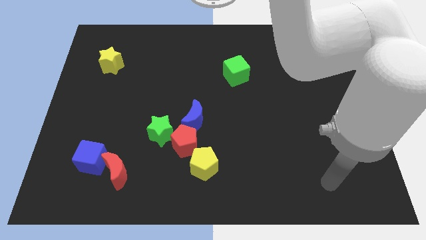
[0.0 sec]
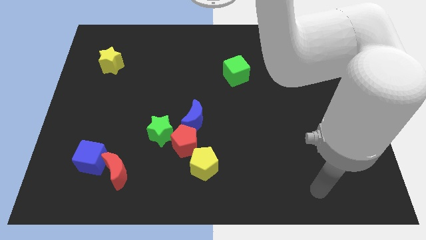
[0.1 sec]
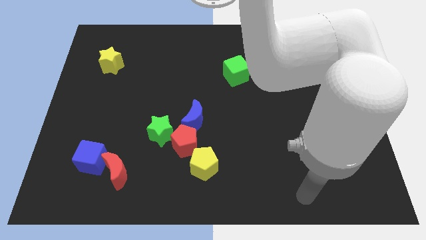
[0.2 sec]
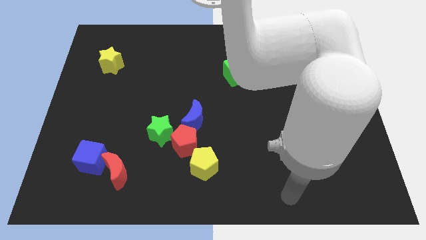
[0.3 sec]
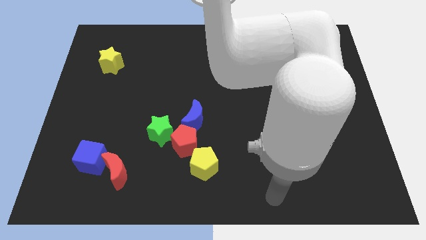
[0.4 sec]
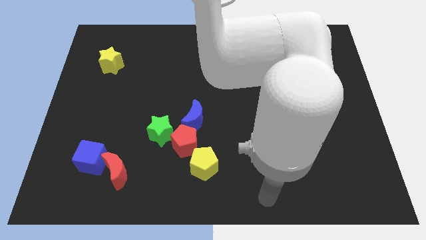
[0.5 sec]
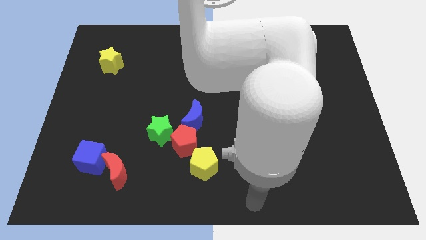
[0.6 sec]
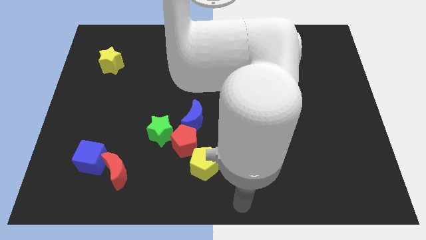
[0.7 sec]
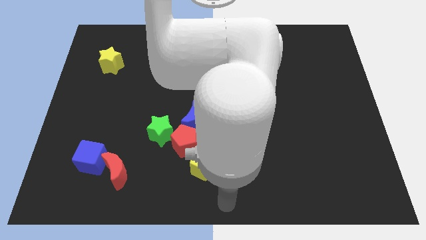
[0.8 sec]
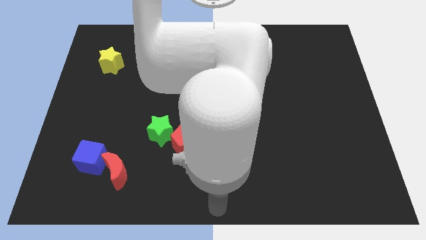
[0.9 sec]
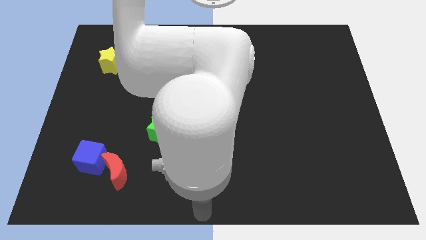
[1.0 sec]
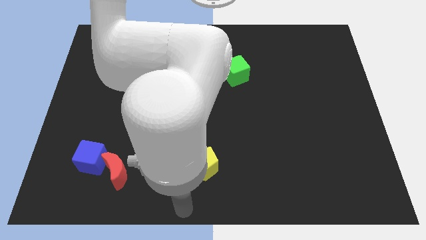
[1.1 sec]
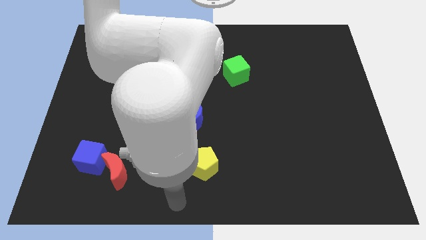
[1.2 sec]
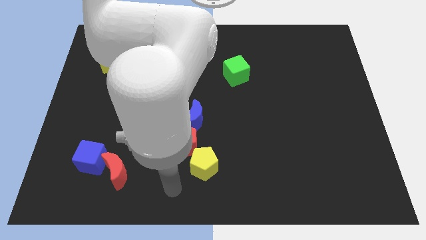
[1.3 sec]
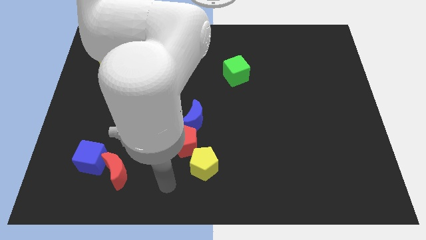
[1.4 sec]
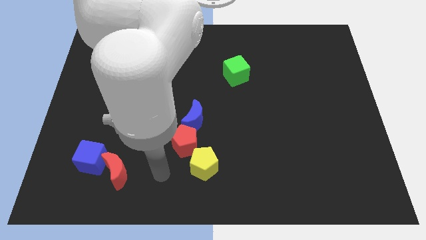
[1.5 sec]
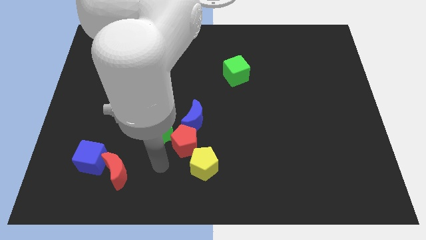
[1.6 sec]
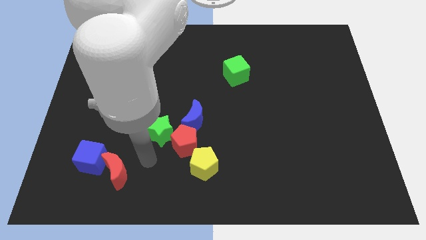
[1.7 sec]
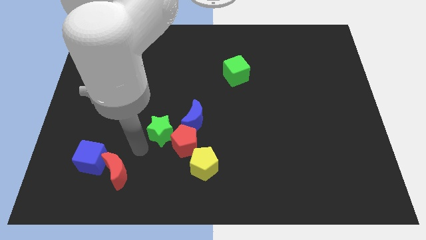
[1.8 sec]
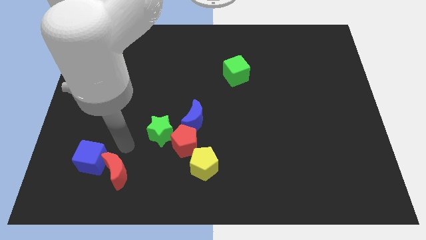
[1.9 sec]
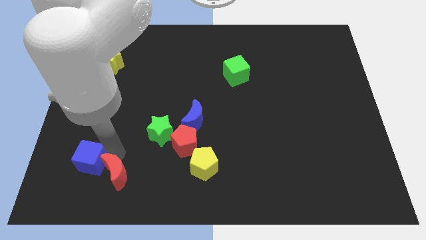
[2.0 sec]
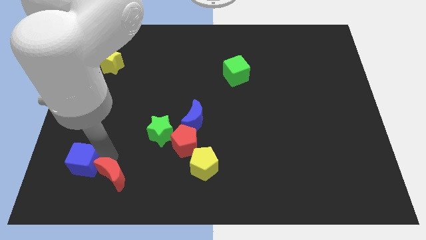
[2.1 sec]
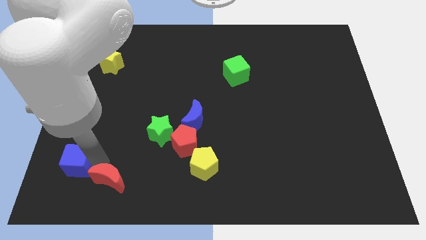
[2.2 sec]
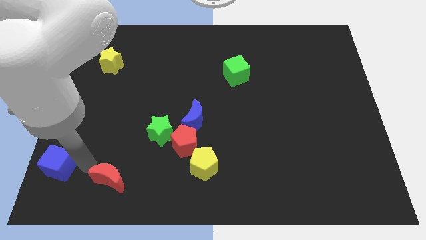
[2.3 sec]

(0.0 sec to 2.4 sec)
separate the red moon from the blue cube

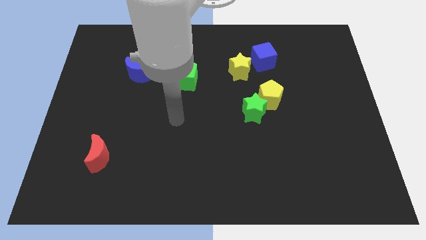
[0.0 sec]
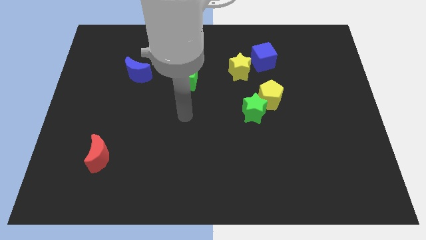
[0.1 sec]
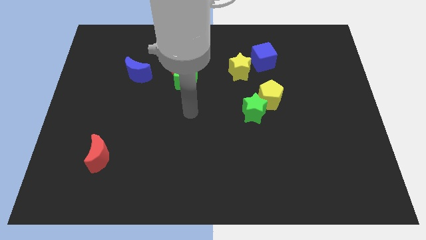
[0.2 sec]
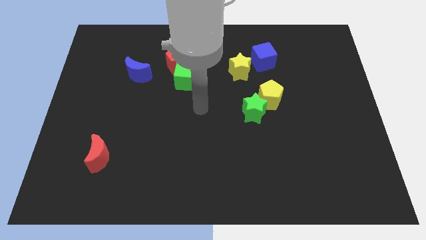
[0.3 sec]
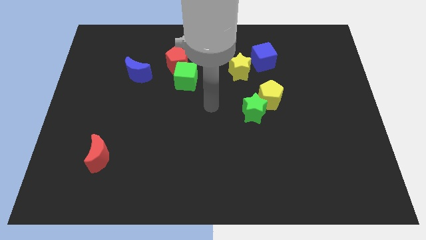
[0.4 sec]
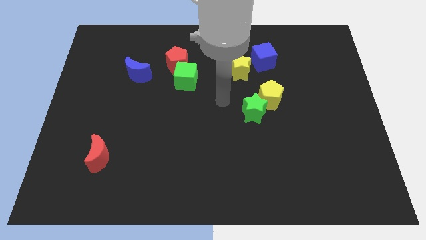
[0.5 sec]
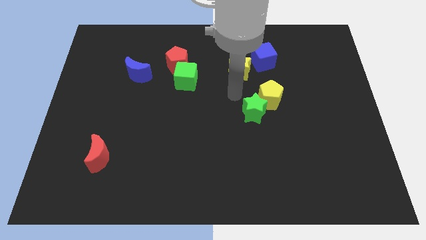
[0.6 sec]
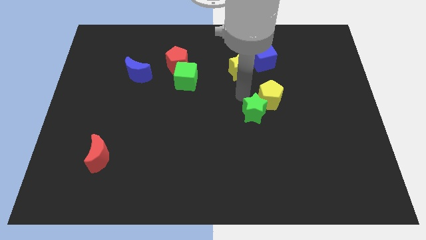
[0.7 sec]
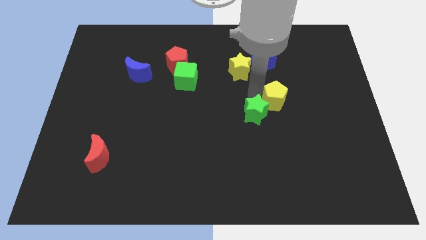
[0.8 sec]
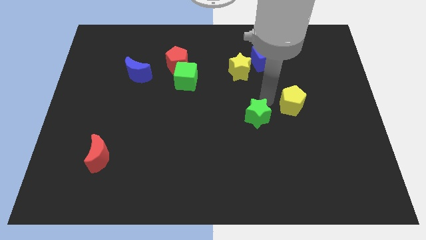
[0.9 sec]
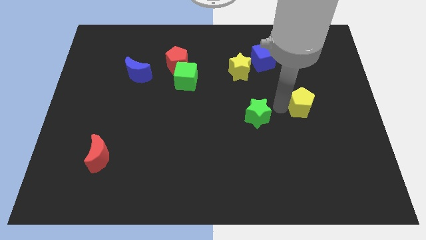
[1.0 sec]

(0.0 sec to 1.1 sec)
move the green star away from the yellow pentagon

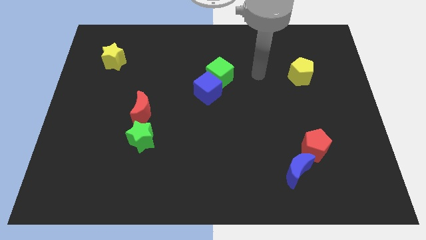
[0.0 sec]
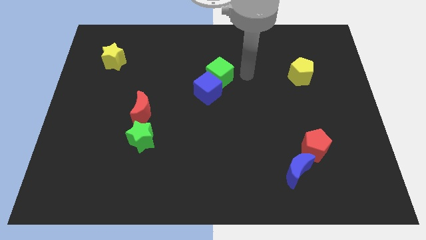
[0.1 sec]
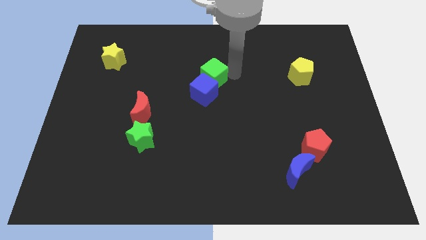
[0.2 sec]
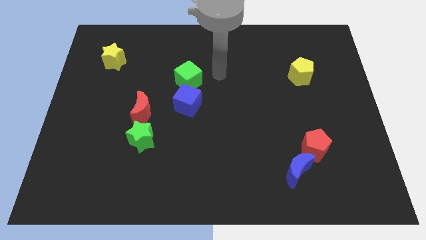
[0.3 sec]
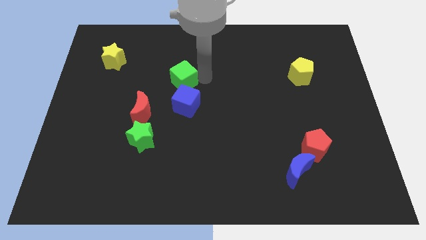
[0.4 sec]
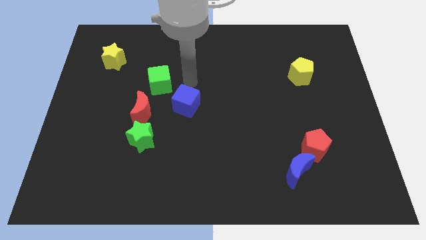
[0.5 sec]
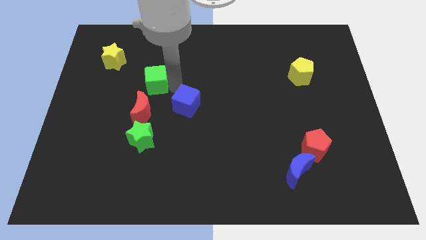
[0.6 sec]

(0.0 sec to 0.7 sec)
pull the blue cube apart from the green cube

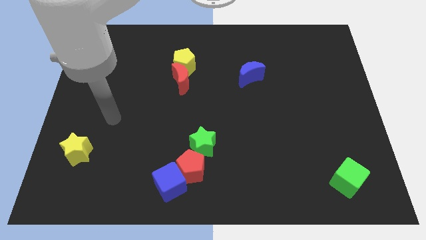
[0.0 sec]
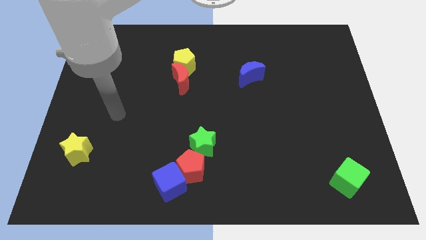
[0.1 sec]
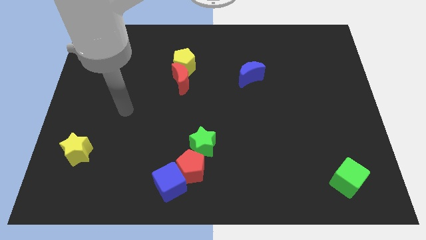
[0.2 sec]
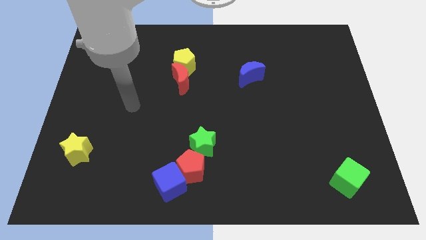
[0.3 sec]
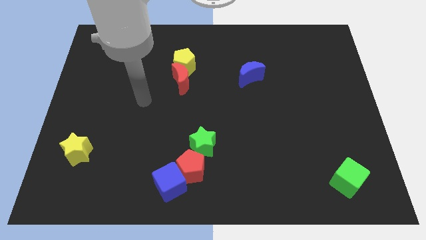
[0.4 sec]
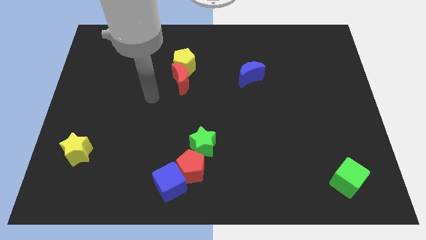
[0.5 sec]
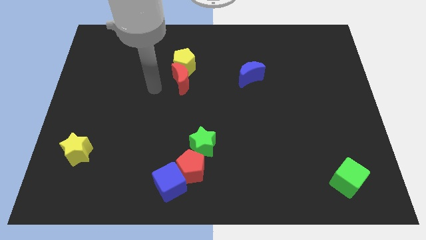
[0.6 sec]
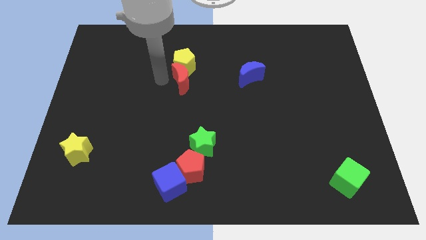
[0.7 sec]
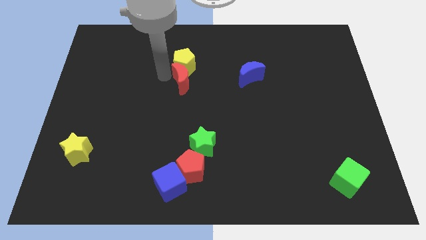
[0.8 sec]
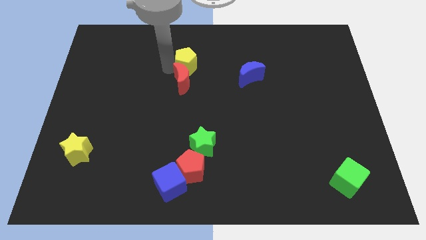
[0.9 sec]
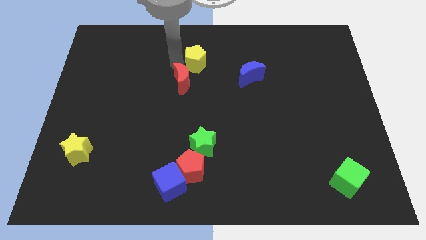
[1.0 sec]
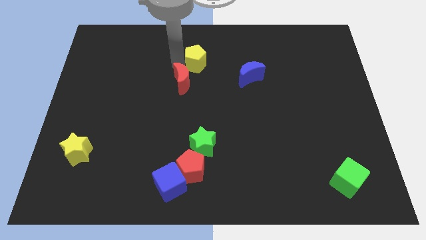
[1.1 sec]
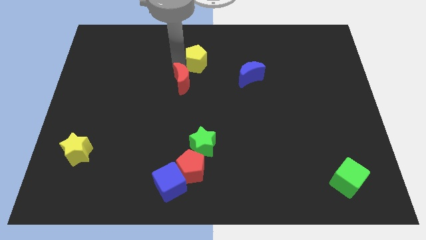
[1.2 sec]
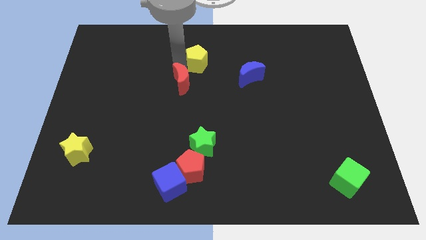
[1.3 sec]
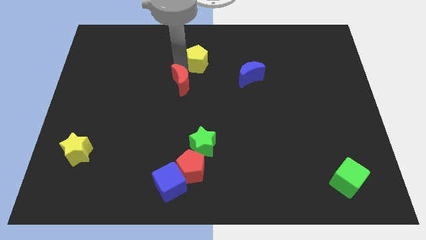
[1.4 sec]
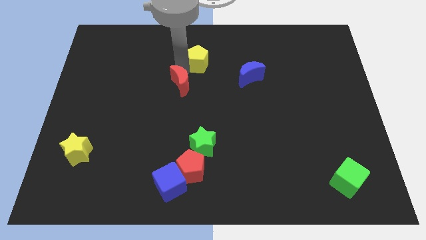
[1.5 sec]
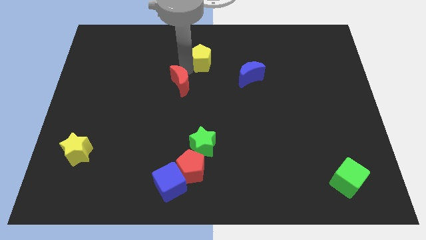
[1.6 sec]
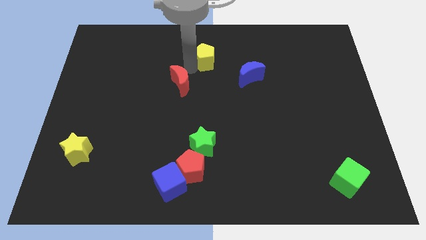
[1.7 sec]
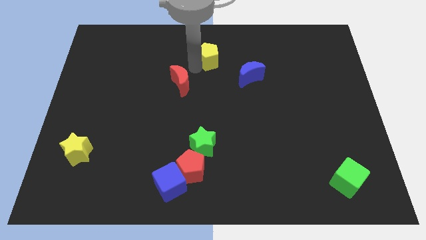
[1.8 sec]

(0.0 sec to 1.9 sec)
pull the red moon apart from the yellow pentagon

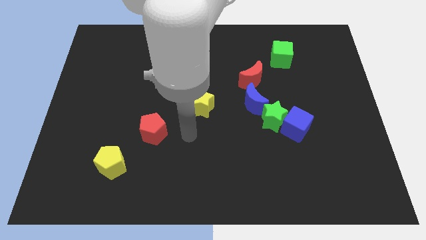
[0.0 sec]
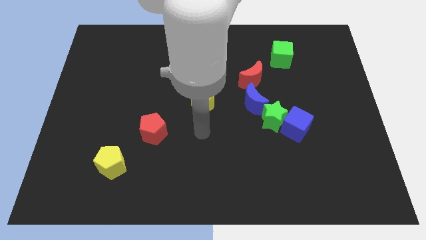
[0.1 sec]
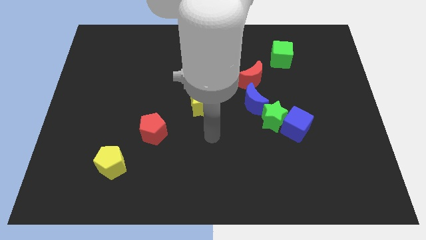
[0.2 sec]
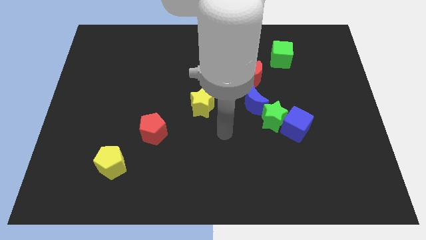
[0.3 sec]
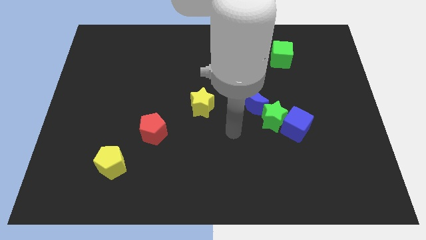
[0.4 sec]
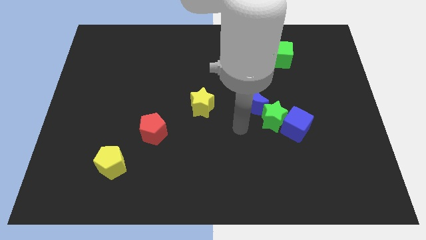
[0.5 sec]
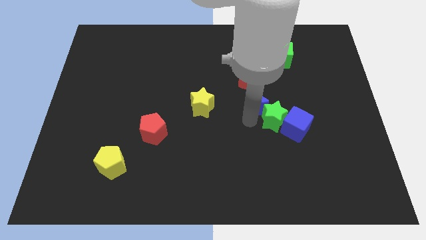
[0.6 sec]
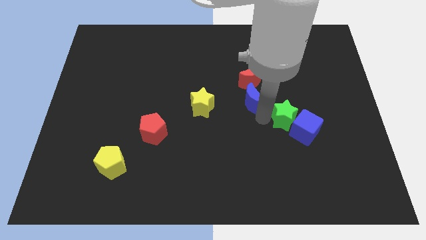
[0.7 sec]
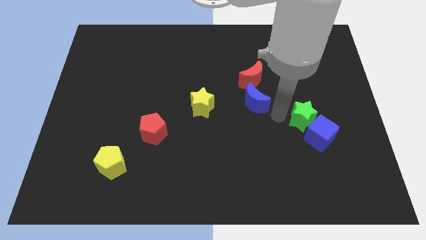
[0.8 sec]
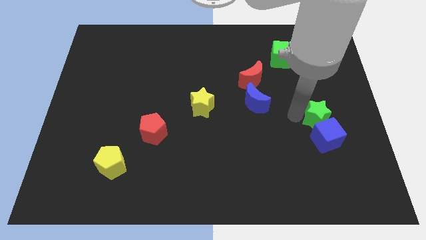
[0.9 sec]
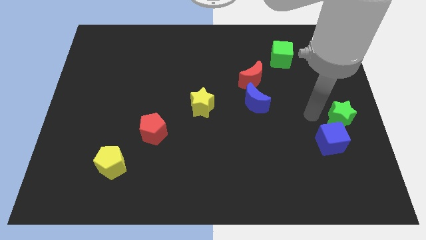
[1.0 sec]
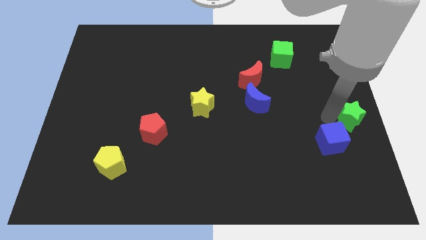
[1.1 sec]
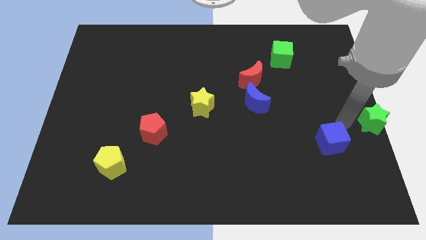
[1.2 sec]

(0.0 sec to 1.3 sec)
move the blue cube away from the green star

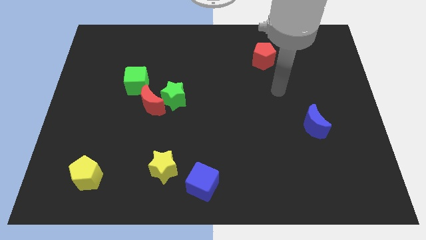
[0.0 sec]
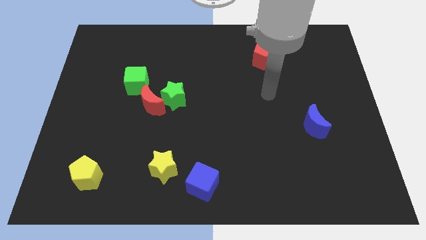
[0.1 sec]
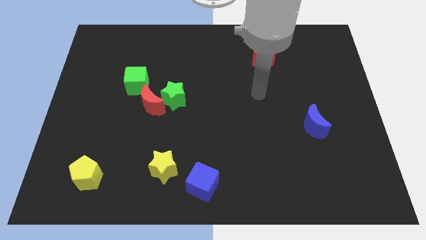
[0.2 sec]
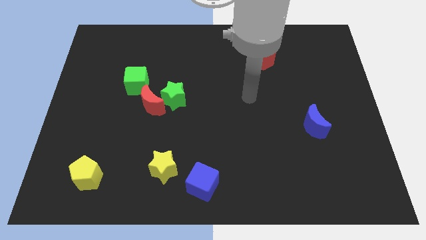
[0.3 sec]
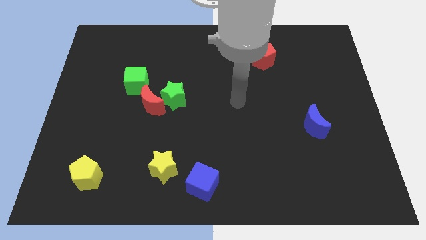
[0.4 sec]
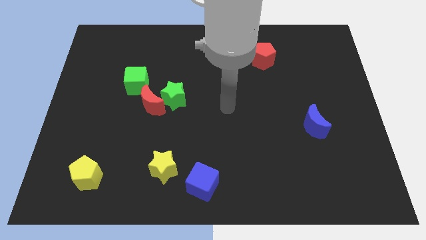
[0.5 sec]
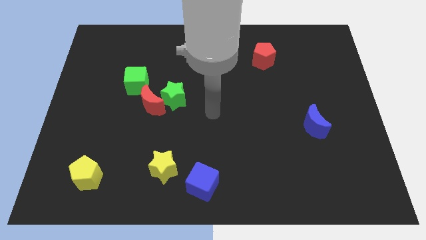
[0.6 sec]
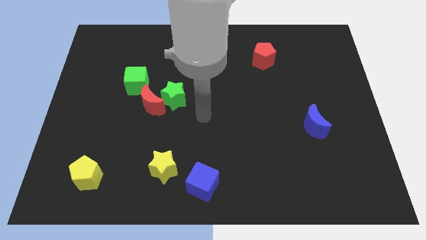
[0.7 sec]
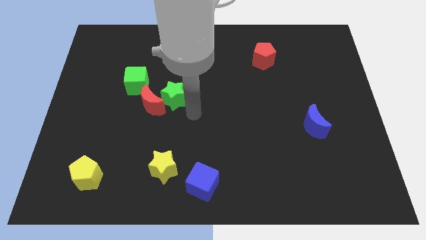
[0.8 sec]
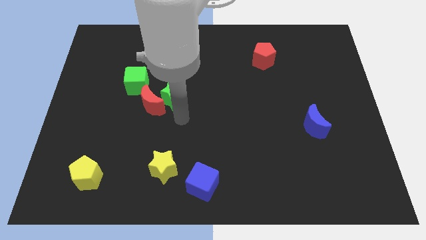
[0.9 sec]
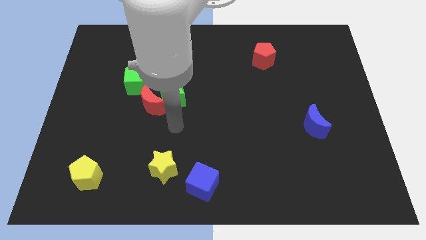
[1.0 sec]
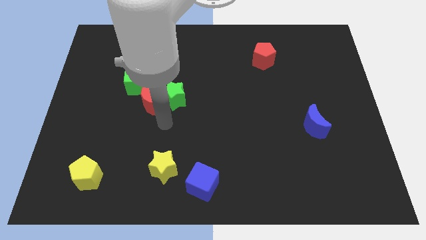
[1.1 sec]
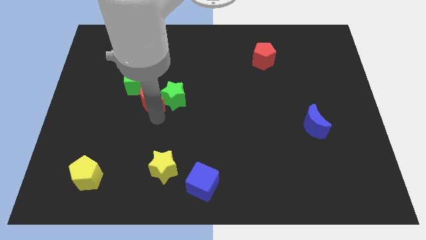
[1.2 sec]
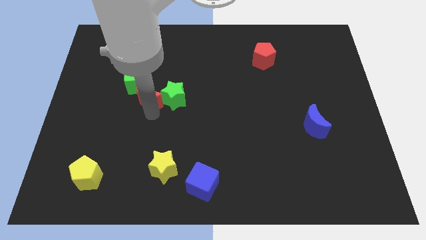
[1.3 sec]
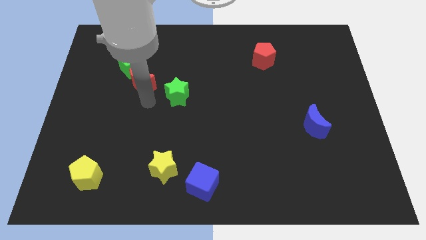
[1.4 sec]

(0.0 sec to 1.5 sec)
pull the green star apart from the red moon

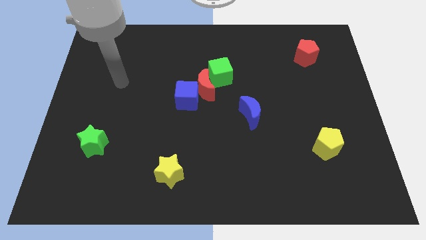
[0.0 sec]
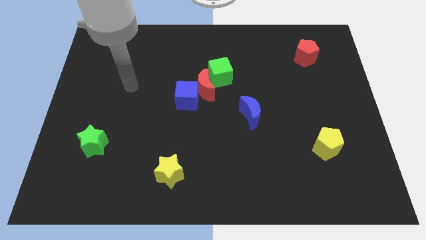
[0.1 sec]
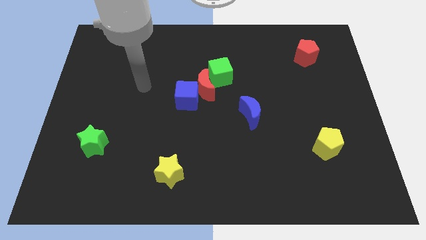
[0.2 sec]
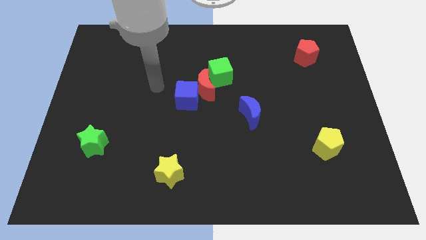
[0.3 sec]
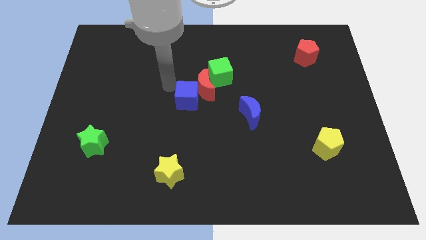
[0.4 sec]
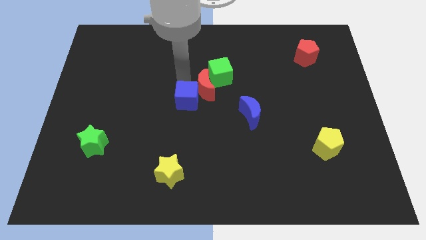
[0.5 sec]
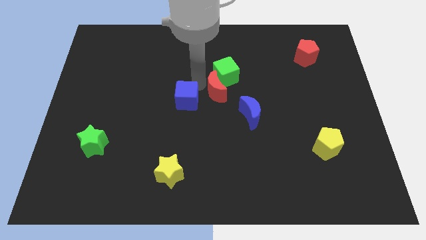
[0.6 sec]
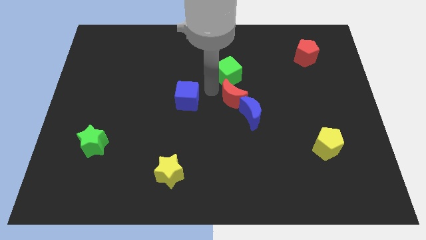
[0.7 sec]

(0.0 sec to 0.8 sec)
separate the blue cube from the red moon
